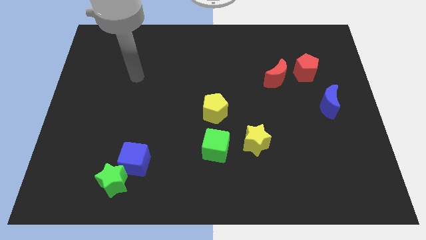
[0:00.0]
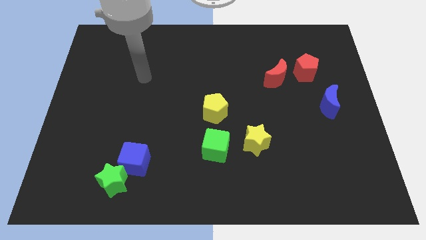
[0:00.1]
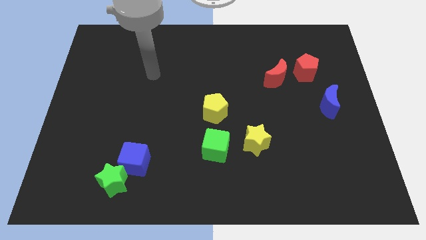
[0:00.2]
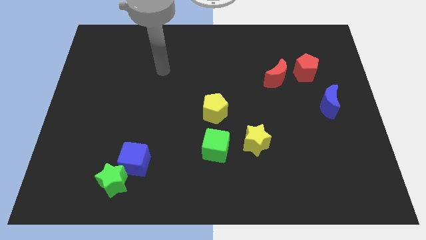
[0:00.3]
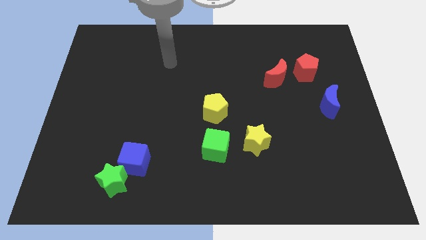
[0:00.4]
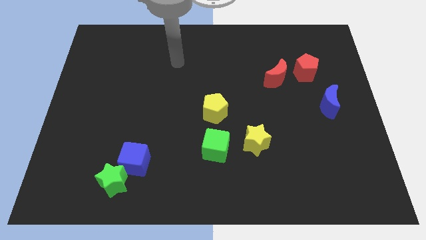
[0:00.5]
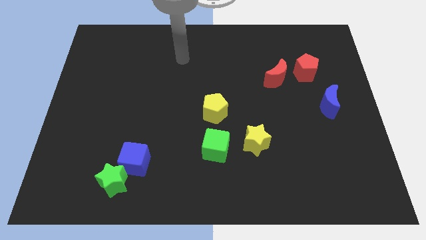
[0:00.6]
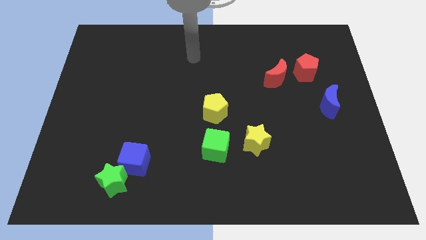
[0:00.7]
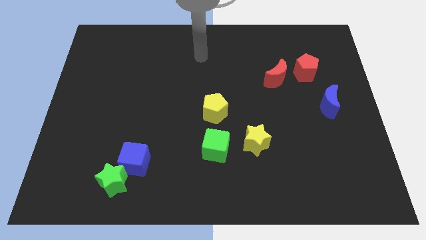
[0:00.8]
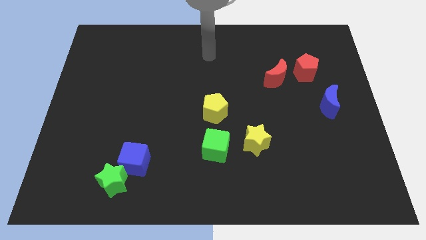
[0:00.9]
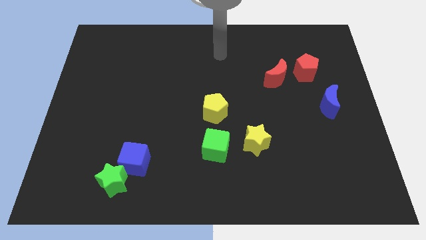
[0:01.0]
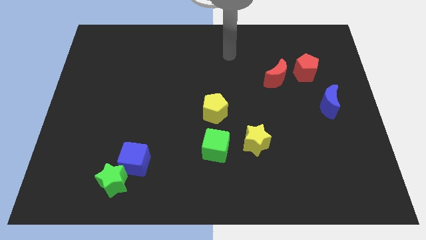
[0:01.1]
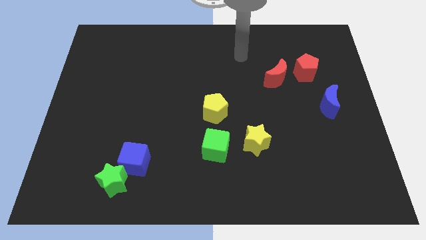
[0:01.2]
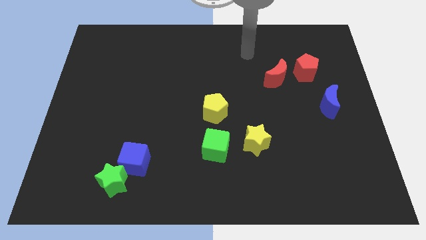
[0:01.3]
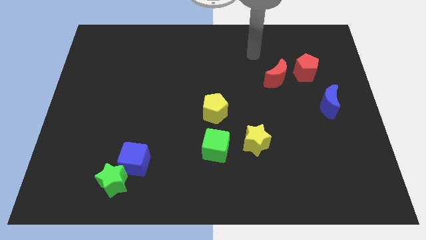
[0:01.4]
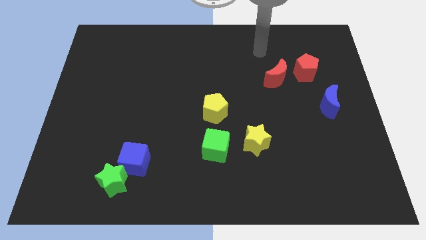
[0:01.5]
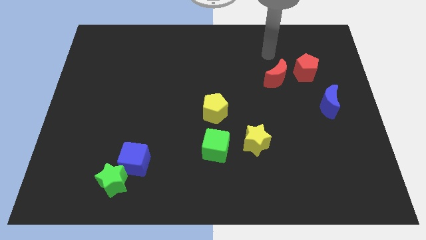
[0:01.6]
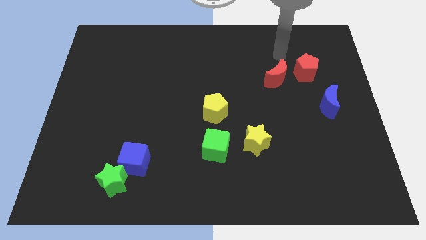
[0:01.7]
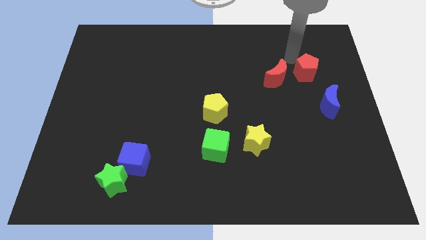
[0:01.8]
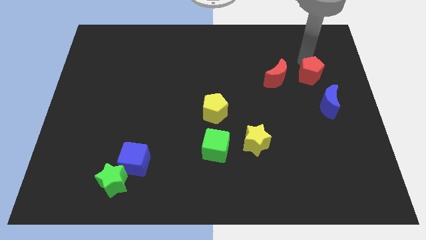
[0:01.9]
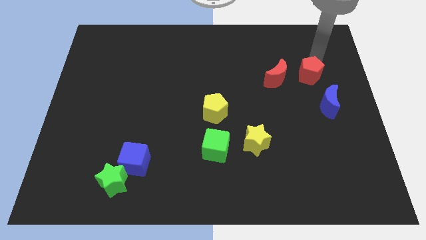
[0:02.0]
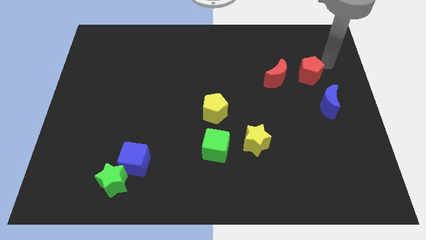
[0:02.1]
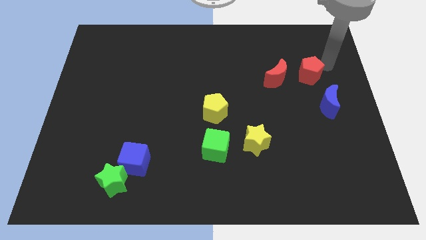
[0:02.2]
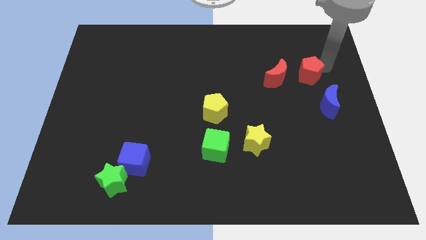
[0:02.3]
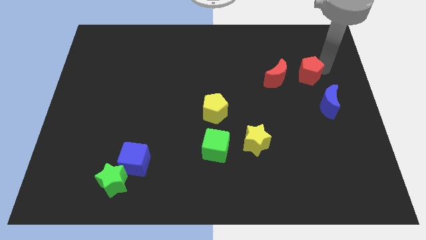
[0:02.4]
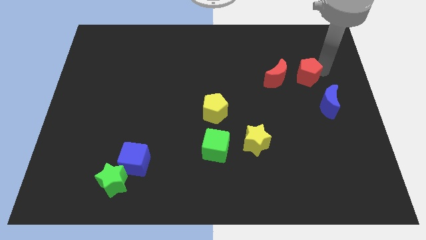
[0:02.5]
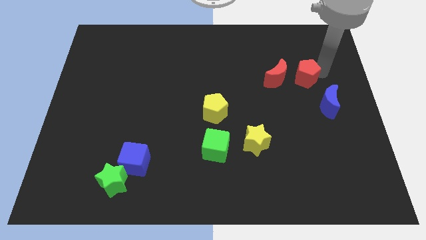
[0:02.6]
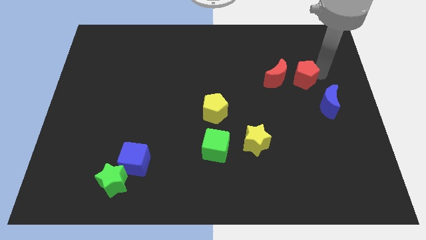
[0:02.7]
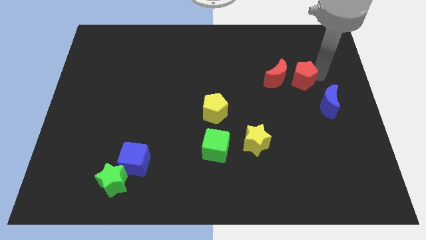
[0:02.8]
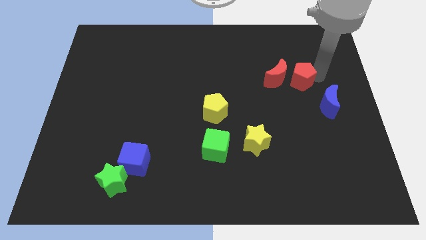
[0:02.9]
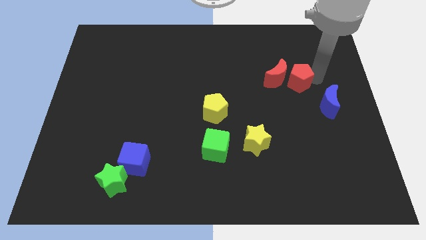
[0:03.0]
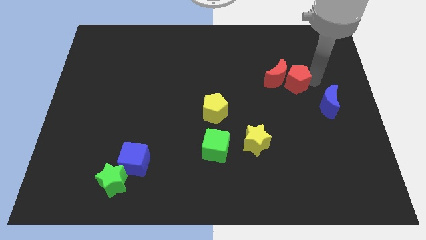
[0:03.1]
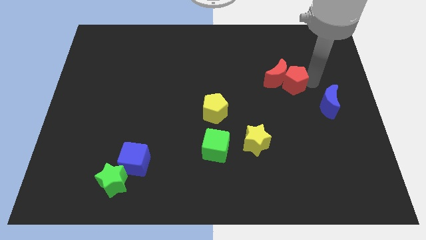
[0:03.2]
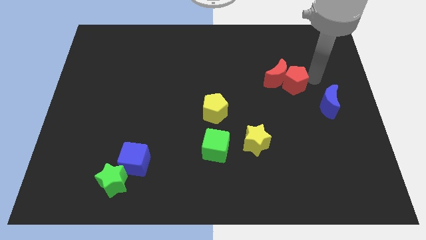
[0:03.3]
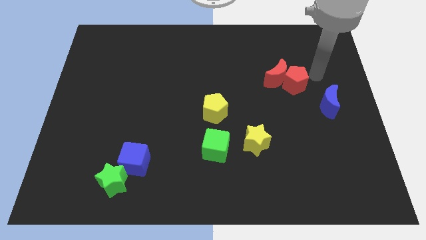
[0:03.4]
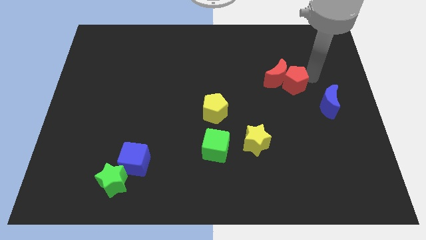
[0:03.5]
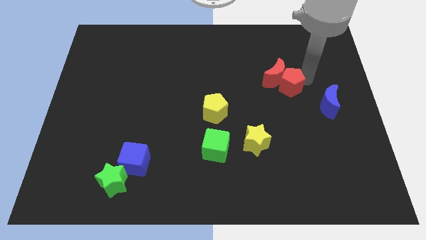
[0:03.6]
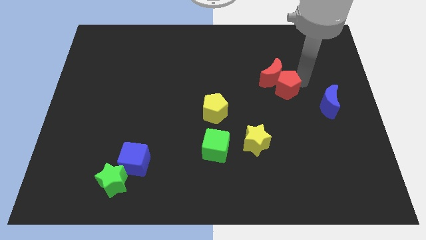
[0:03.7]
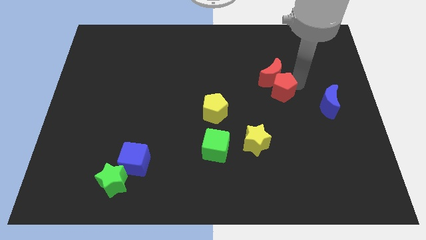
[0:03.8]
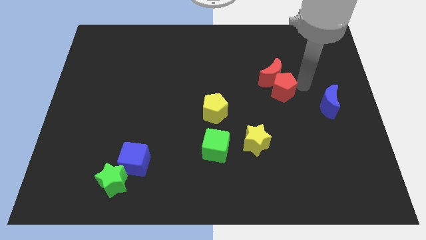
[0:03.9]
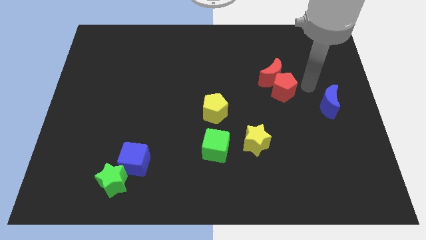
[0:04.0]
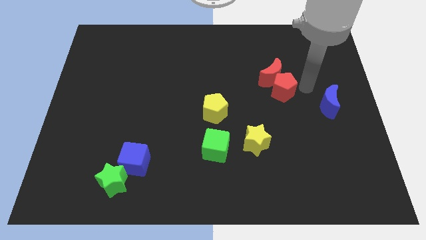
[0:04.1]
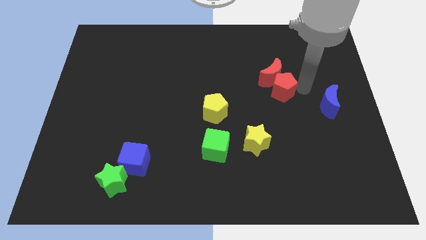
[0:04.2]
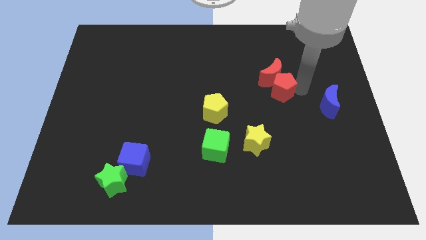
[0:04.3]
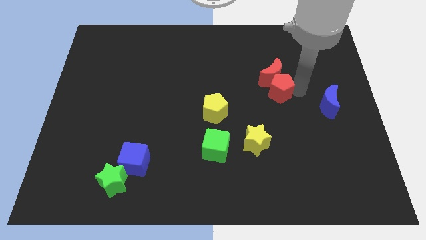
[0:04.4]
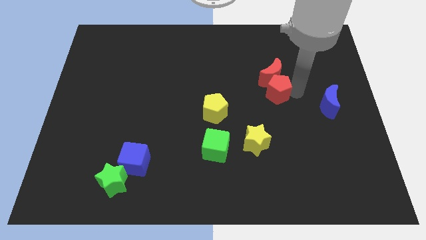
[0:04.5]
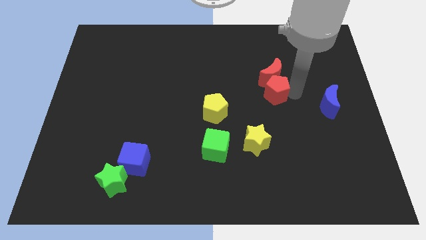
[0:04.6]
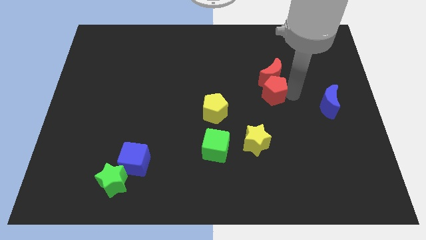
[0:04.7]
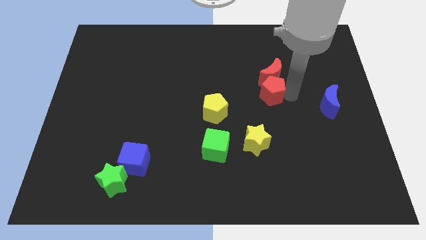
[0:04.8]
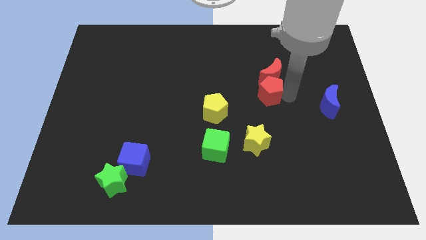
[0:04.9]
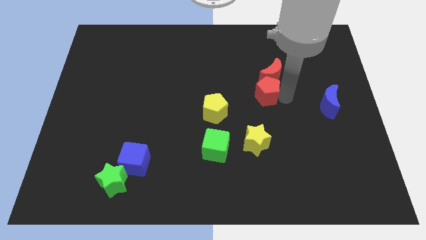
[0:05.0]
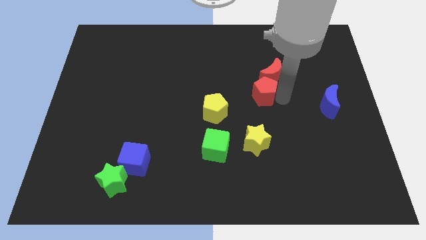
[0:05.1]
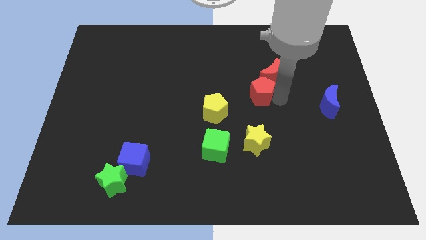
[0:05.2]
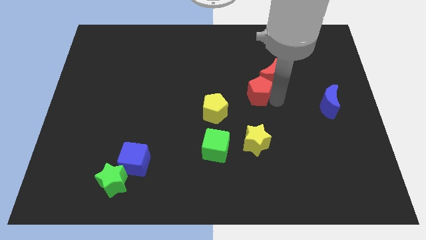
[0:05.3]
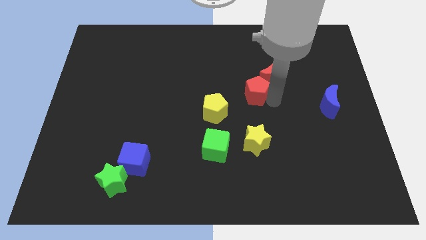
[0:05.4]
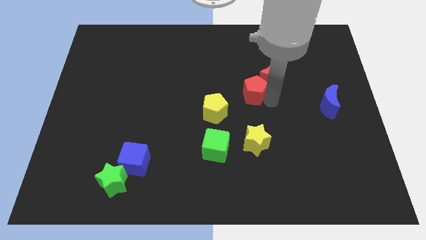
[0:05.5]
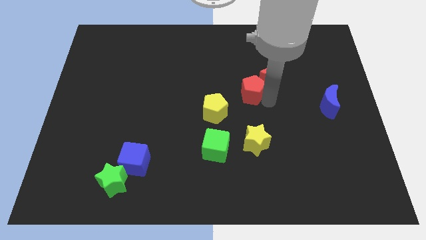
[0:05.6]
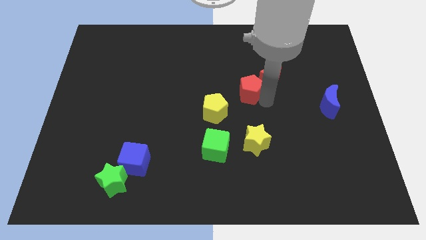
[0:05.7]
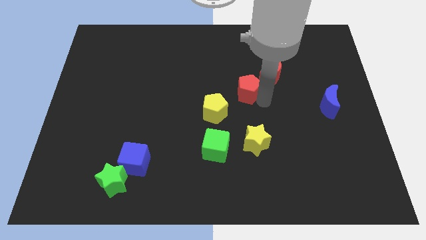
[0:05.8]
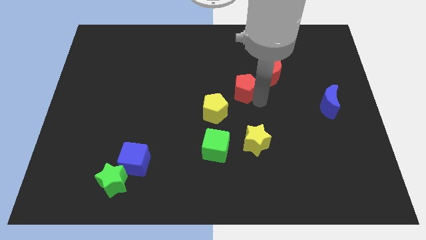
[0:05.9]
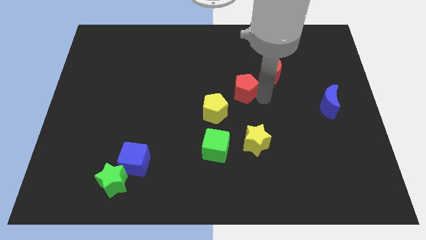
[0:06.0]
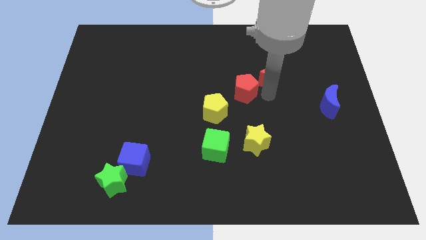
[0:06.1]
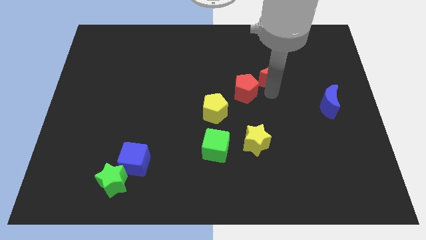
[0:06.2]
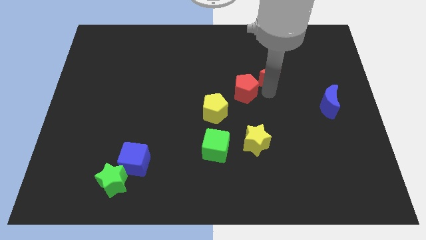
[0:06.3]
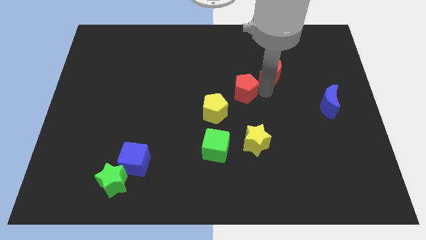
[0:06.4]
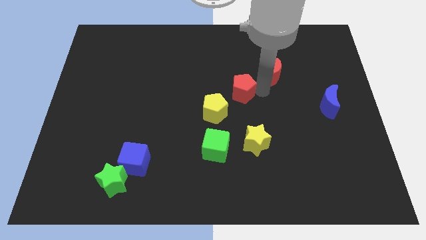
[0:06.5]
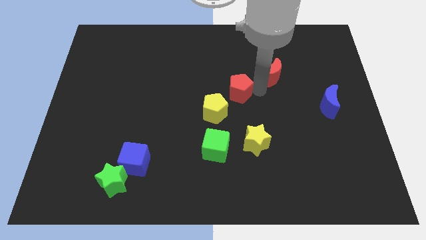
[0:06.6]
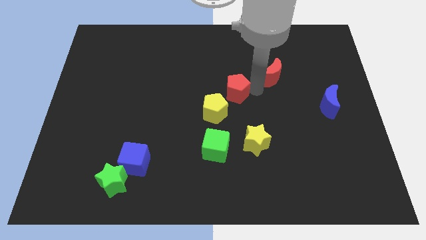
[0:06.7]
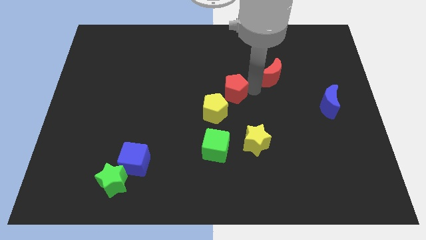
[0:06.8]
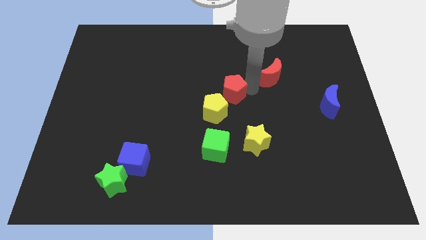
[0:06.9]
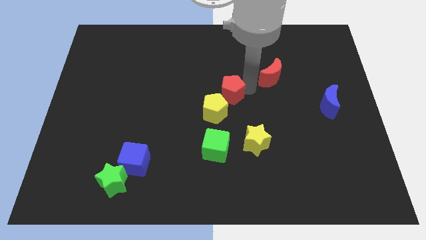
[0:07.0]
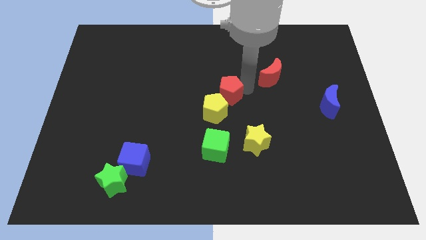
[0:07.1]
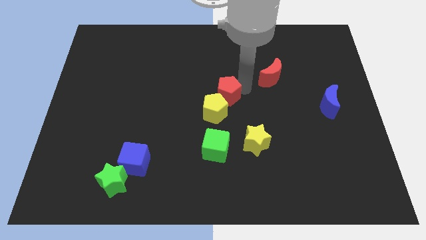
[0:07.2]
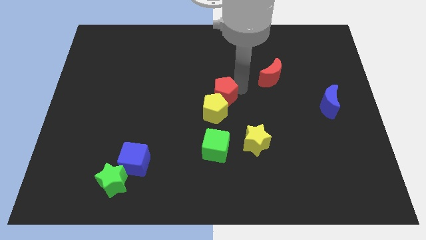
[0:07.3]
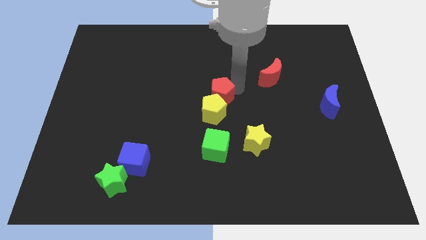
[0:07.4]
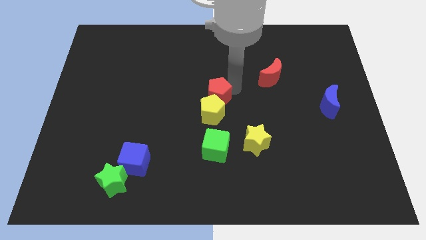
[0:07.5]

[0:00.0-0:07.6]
move the red pentagon to the top left of the yellow pentagon
